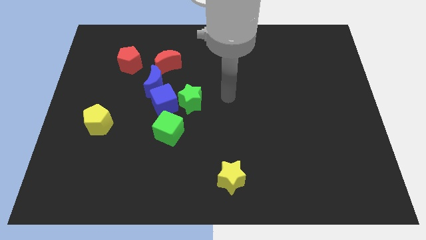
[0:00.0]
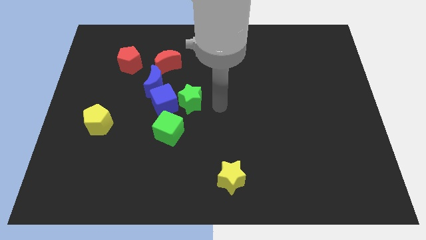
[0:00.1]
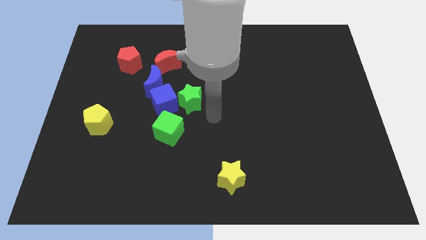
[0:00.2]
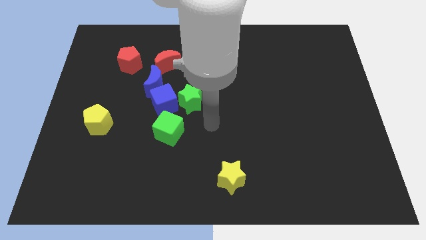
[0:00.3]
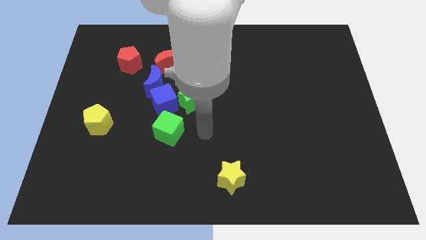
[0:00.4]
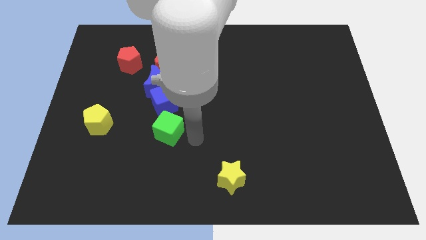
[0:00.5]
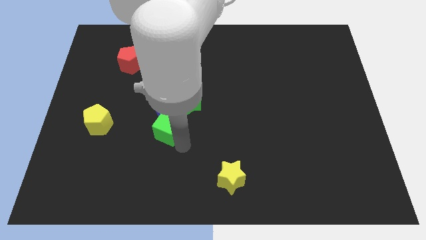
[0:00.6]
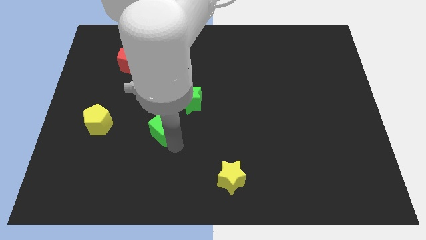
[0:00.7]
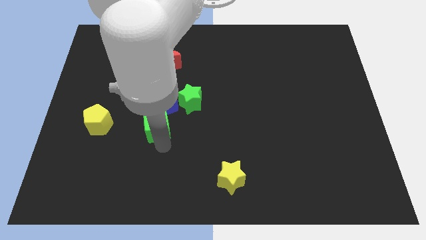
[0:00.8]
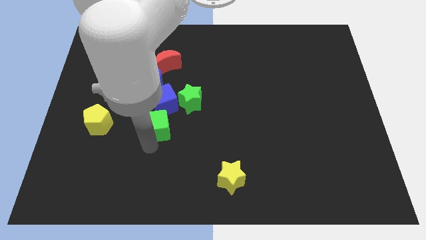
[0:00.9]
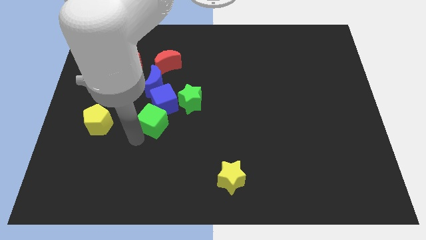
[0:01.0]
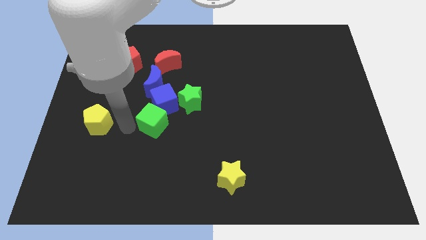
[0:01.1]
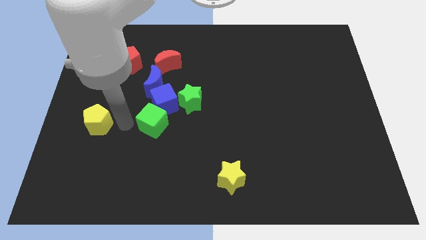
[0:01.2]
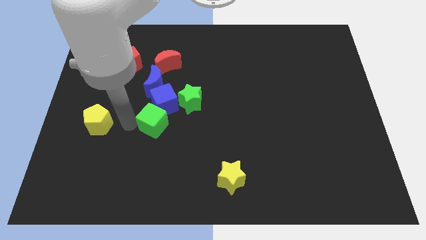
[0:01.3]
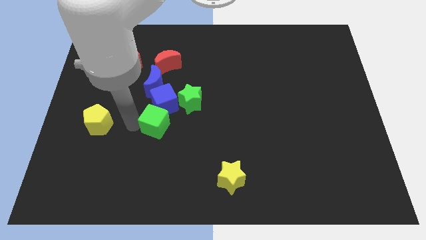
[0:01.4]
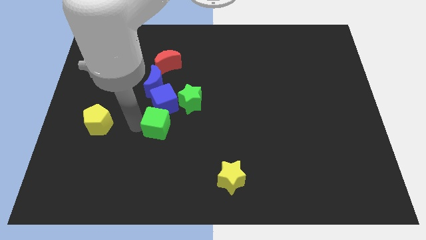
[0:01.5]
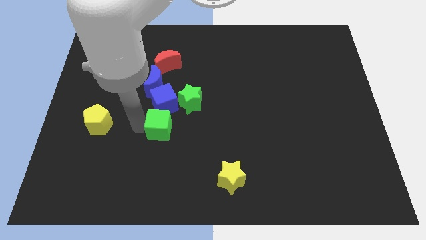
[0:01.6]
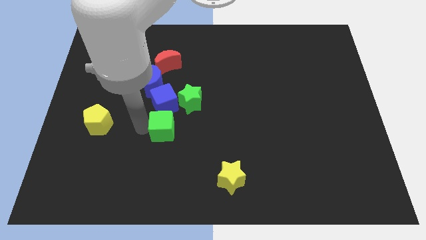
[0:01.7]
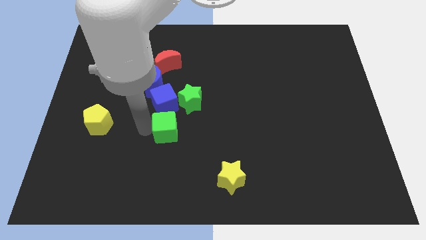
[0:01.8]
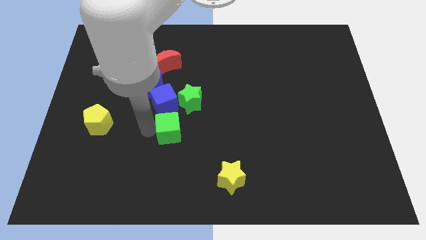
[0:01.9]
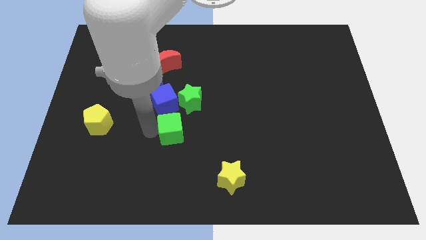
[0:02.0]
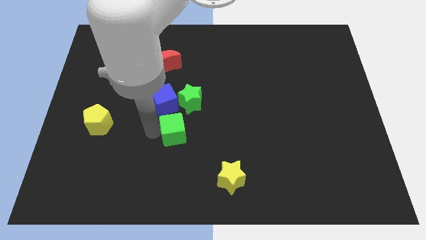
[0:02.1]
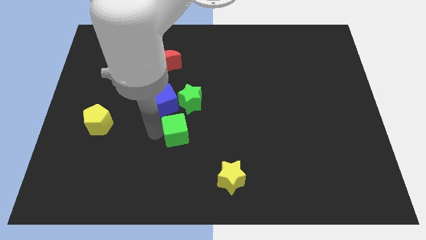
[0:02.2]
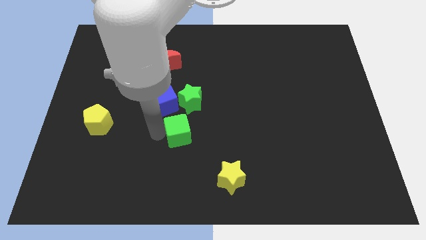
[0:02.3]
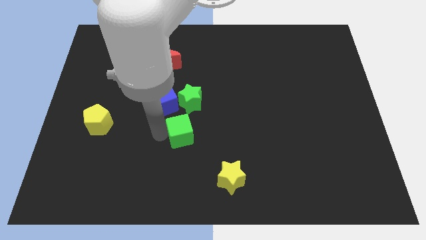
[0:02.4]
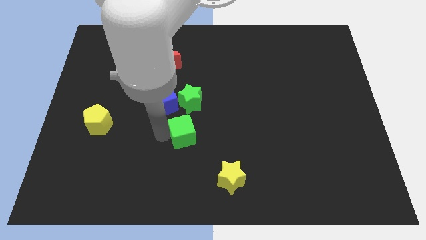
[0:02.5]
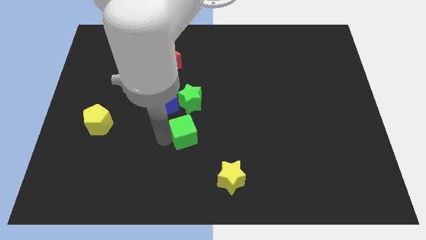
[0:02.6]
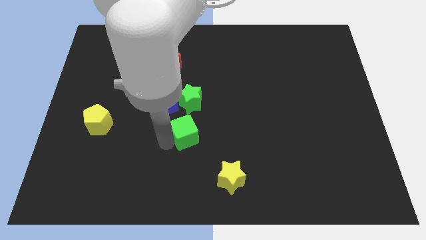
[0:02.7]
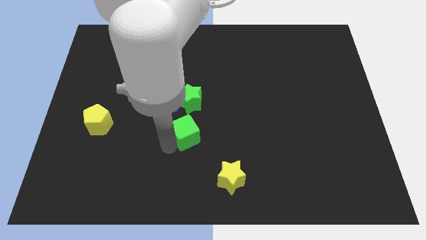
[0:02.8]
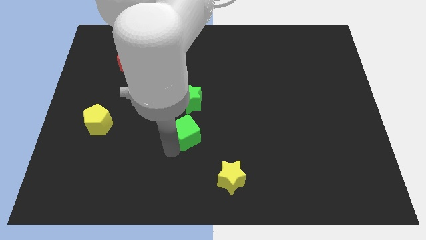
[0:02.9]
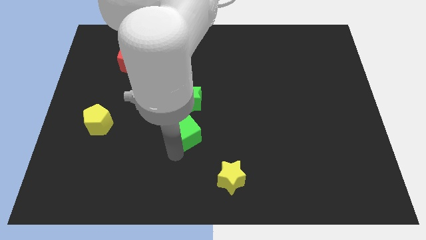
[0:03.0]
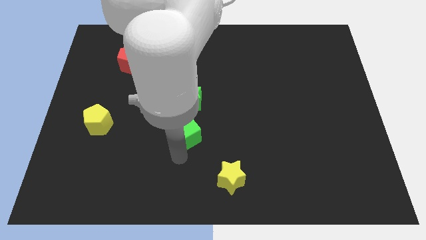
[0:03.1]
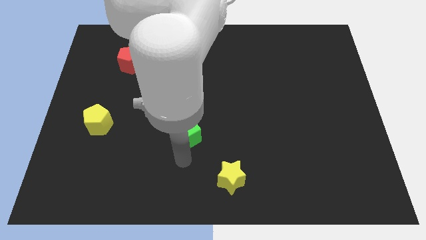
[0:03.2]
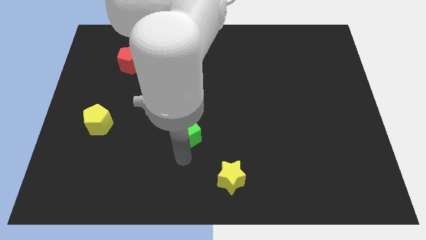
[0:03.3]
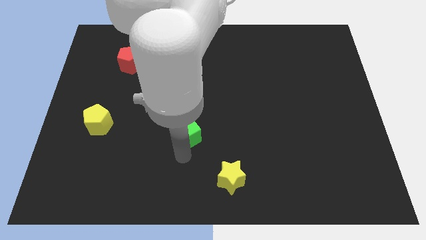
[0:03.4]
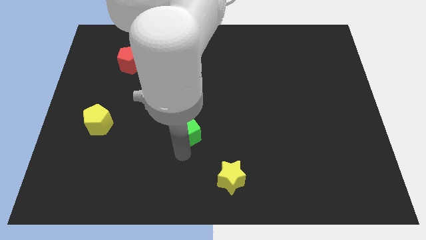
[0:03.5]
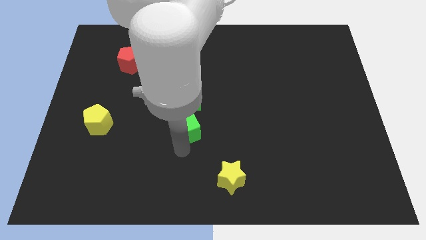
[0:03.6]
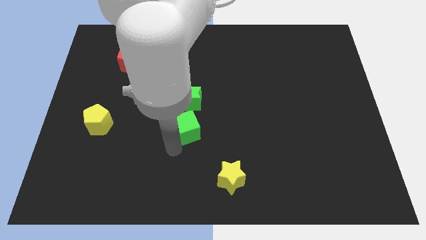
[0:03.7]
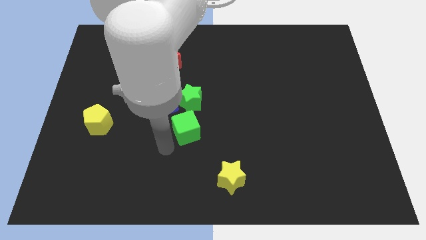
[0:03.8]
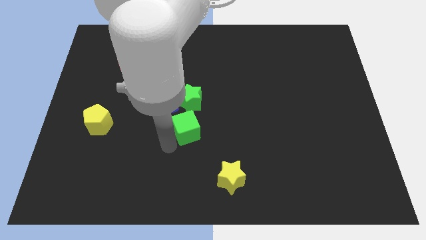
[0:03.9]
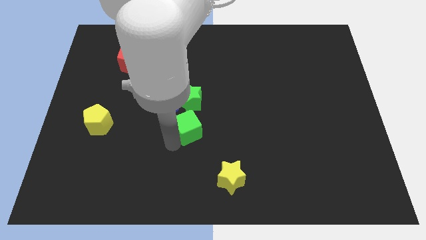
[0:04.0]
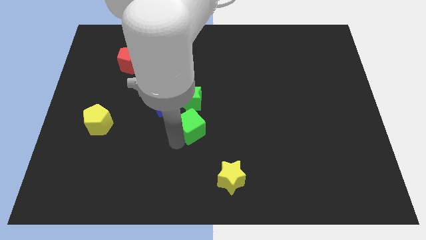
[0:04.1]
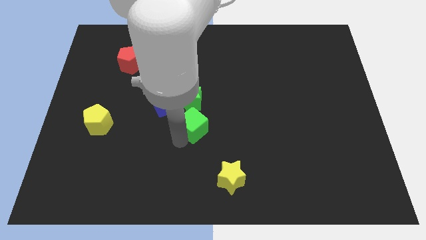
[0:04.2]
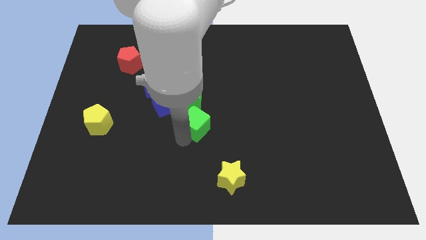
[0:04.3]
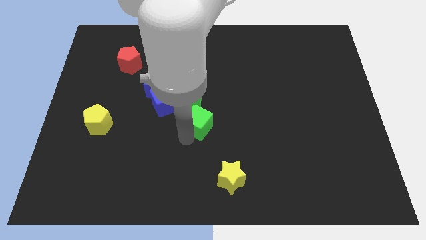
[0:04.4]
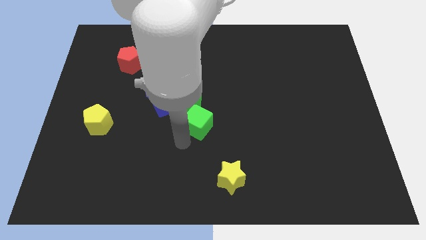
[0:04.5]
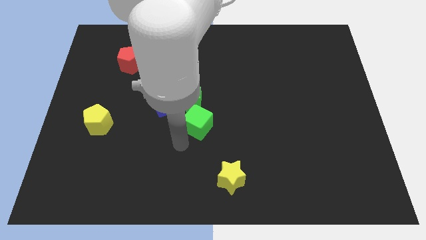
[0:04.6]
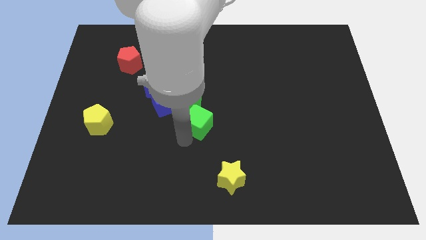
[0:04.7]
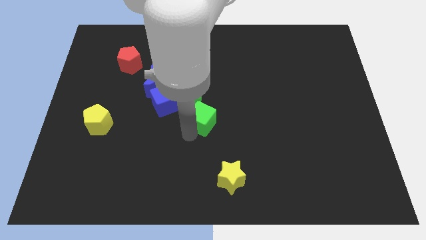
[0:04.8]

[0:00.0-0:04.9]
move the green cube up and right a little bit

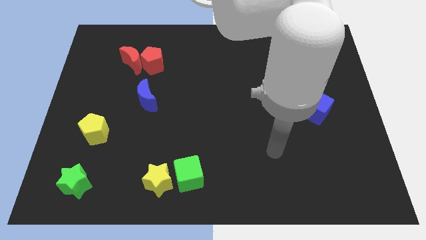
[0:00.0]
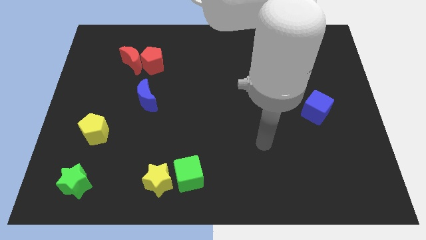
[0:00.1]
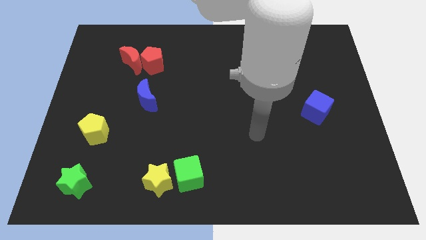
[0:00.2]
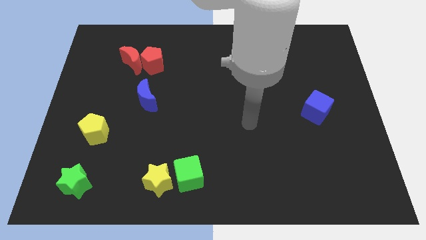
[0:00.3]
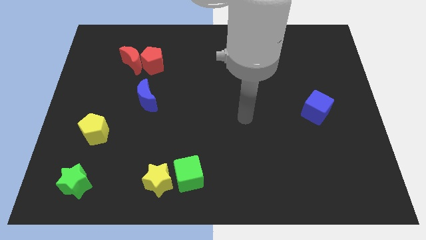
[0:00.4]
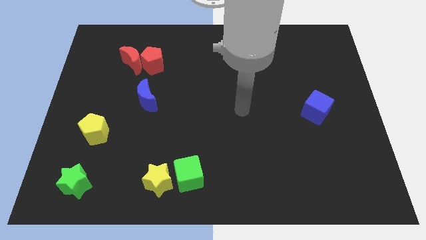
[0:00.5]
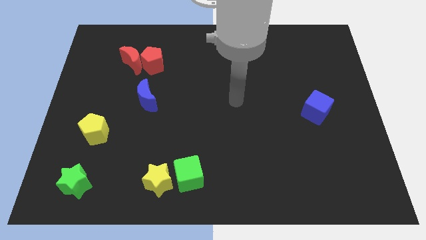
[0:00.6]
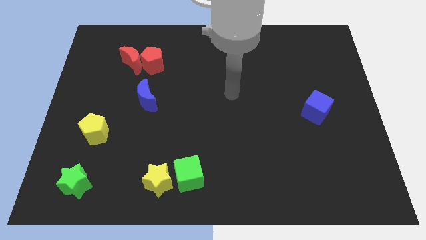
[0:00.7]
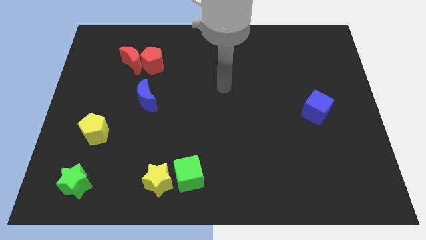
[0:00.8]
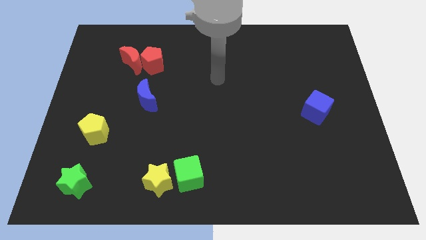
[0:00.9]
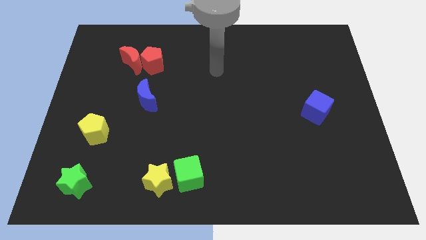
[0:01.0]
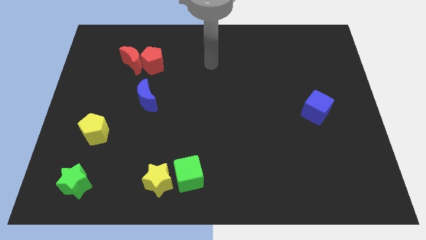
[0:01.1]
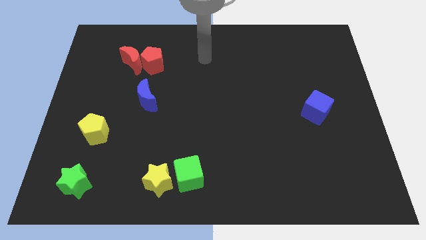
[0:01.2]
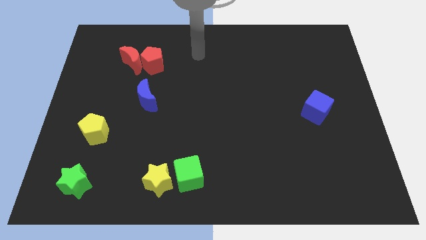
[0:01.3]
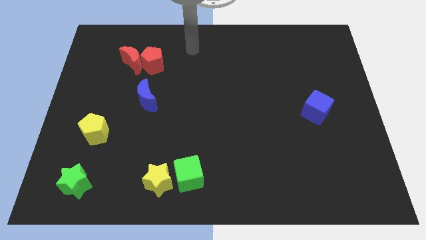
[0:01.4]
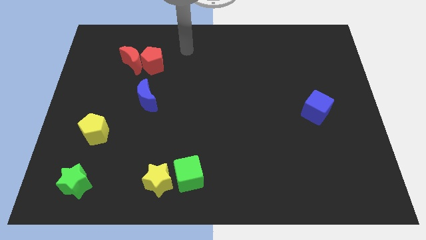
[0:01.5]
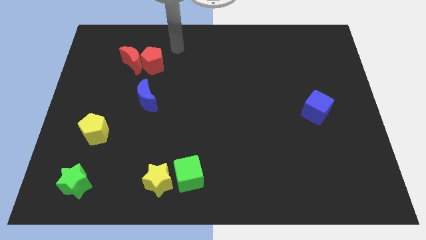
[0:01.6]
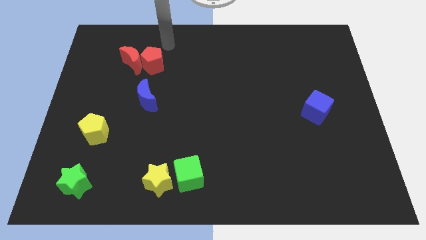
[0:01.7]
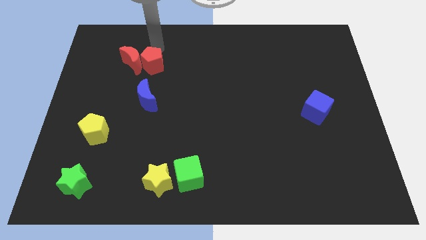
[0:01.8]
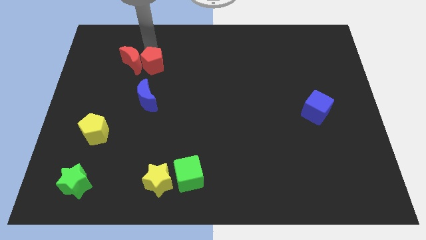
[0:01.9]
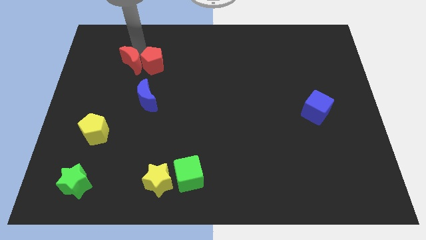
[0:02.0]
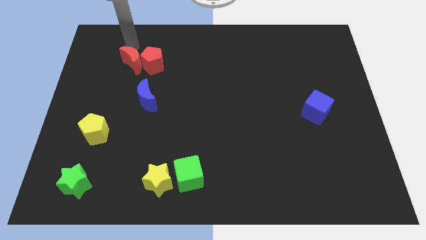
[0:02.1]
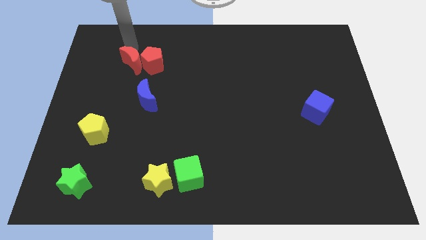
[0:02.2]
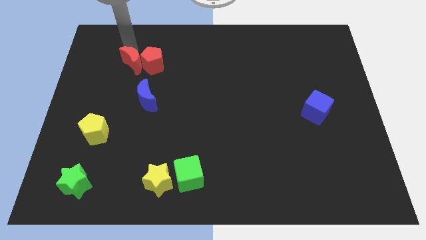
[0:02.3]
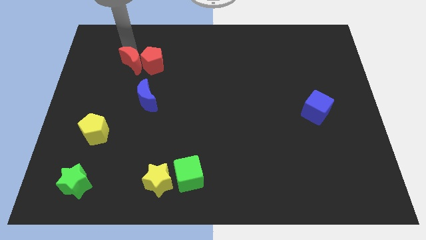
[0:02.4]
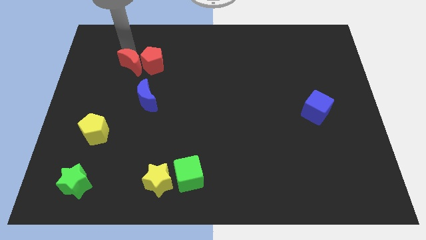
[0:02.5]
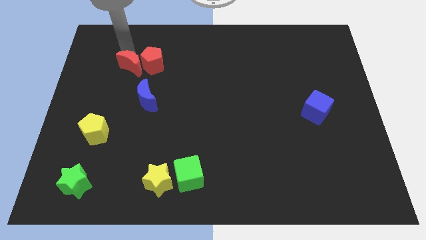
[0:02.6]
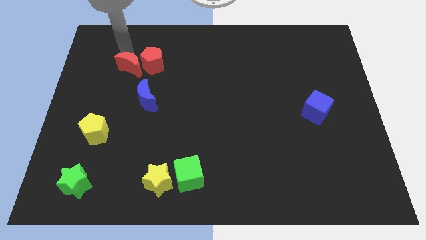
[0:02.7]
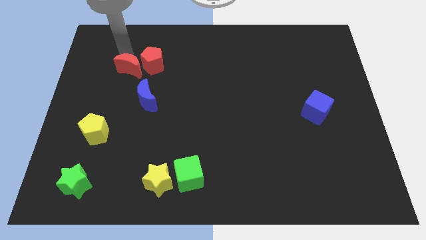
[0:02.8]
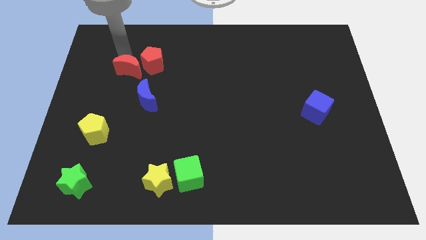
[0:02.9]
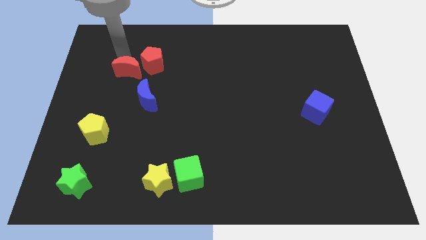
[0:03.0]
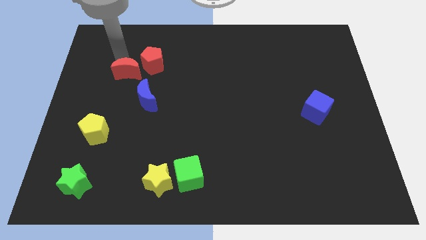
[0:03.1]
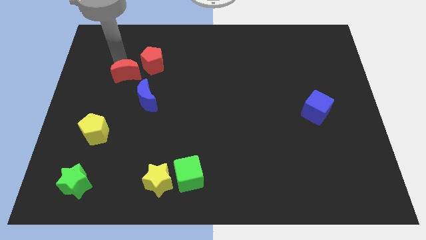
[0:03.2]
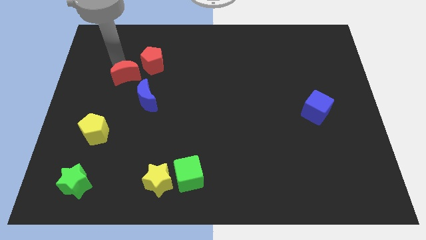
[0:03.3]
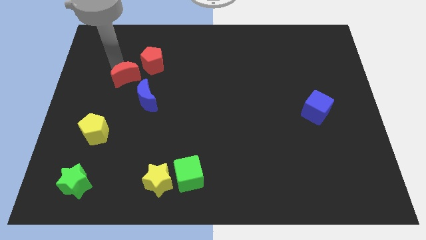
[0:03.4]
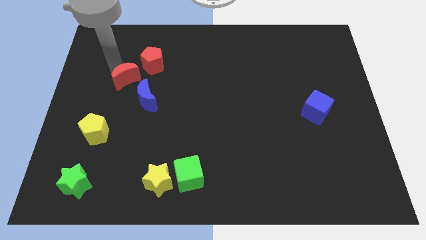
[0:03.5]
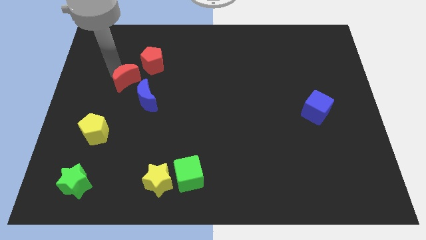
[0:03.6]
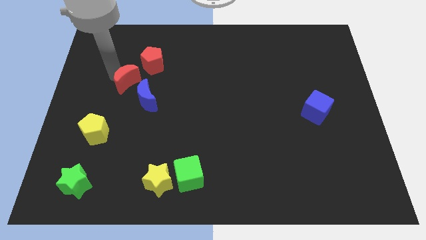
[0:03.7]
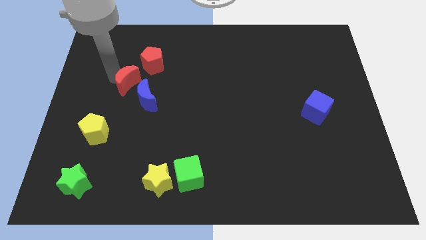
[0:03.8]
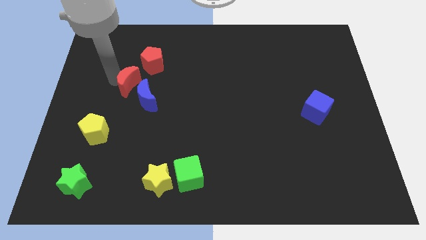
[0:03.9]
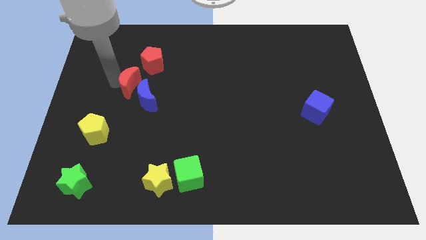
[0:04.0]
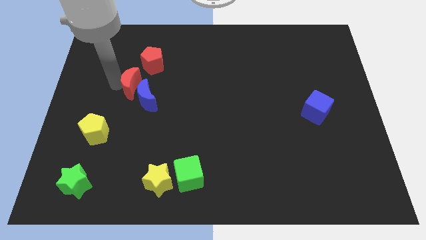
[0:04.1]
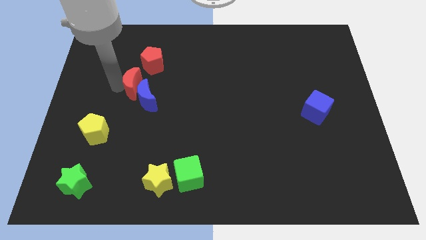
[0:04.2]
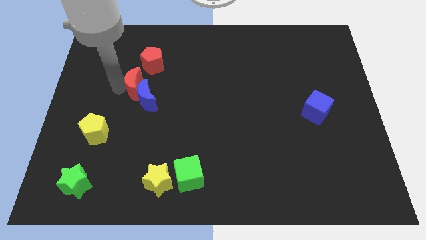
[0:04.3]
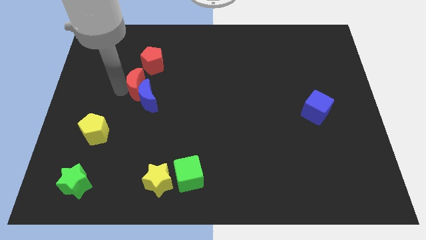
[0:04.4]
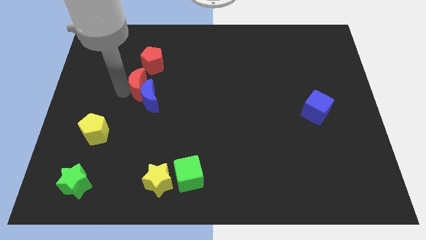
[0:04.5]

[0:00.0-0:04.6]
slightly move the red moon diagonally downwards and right
